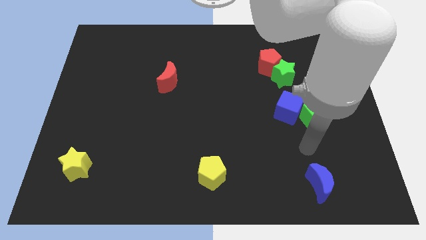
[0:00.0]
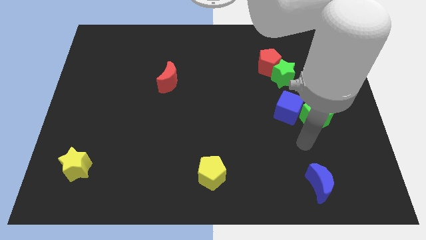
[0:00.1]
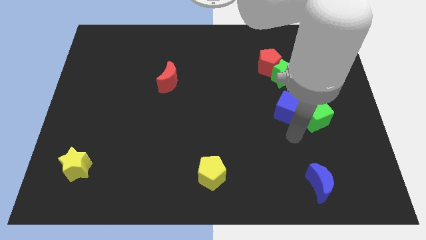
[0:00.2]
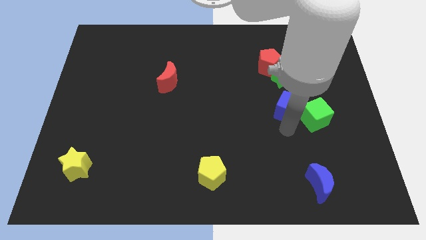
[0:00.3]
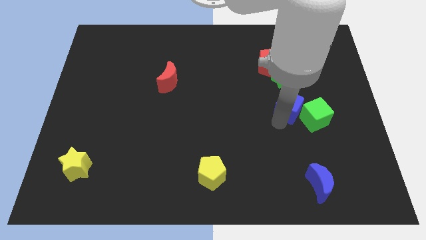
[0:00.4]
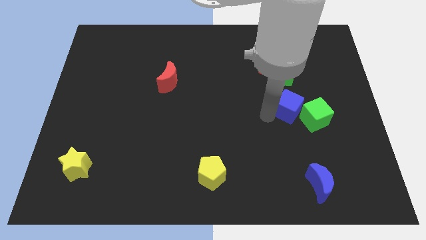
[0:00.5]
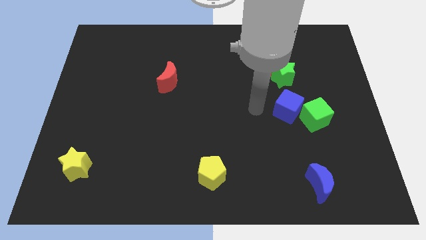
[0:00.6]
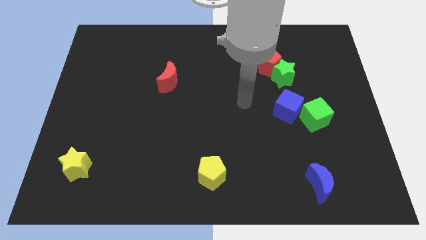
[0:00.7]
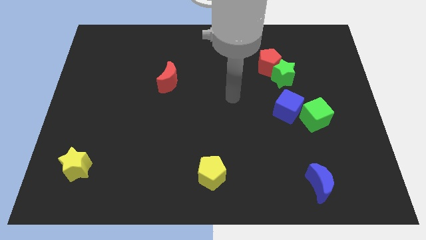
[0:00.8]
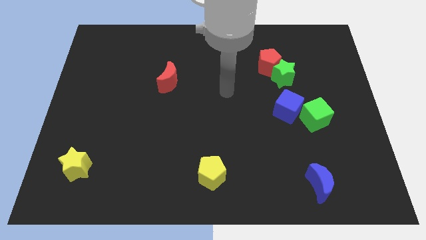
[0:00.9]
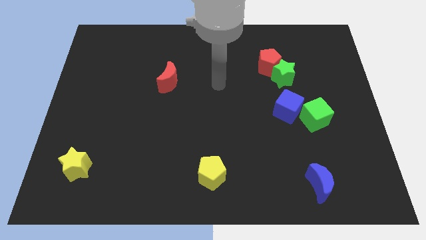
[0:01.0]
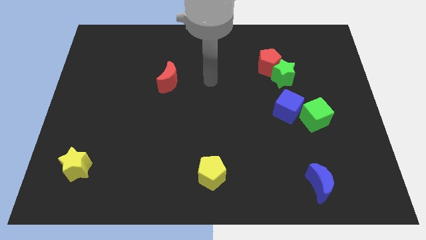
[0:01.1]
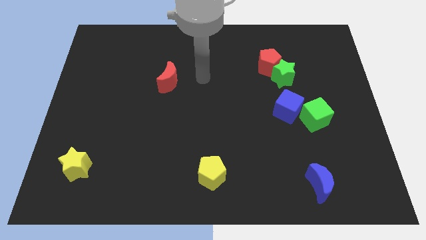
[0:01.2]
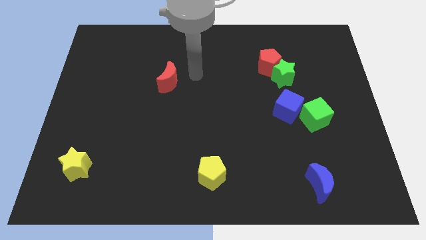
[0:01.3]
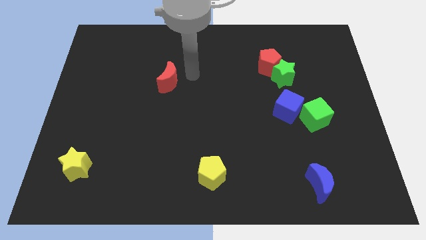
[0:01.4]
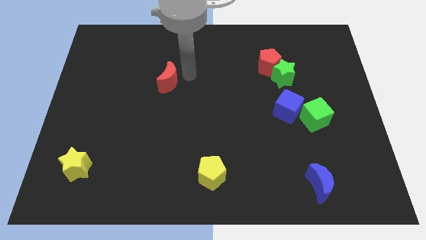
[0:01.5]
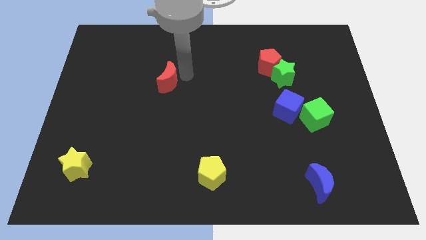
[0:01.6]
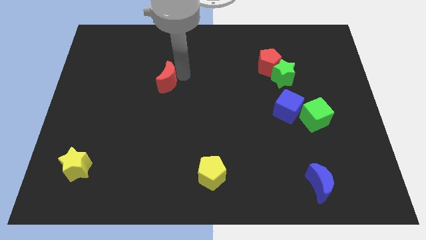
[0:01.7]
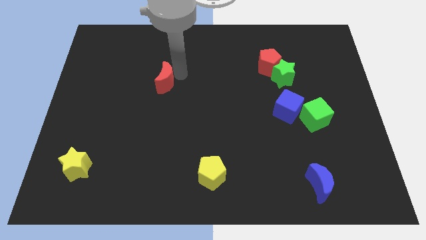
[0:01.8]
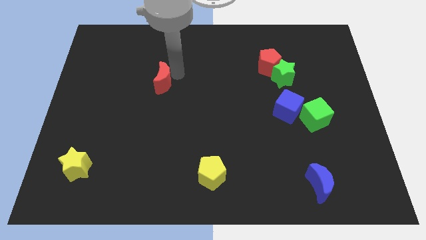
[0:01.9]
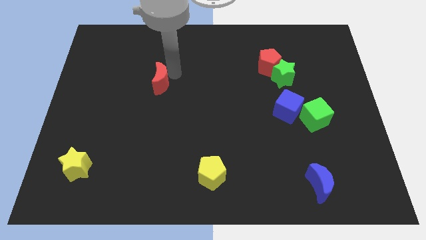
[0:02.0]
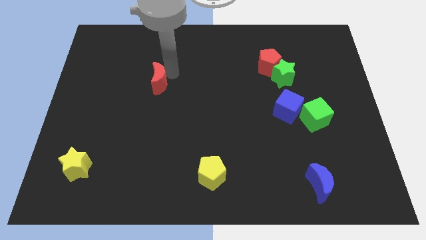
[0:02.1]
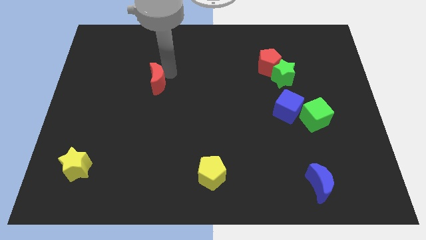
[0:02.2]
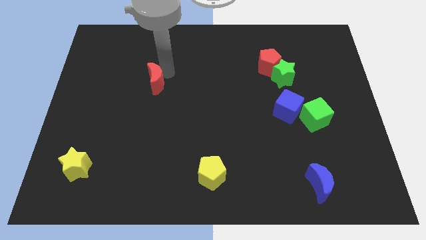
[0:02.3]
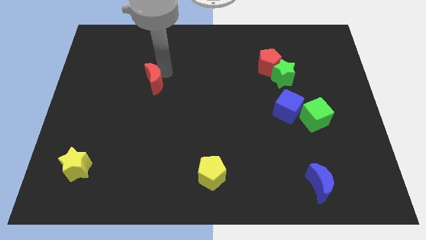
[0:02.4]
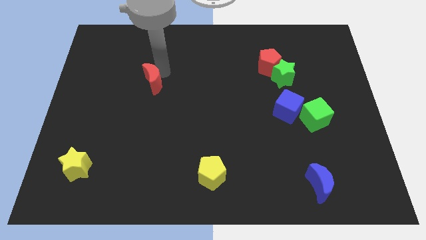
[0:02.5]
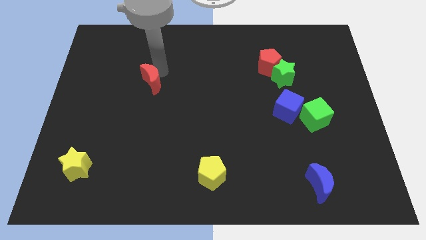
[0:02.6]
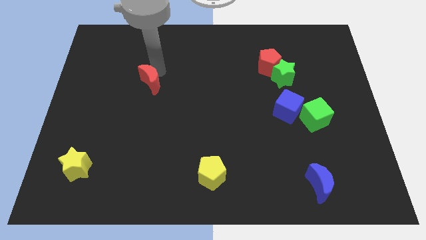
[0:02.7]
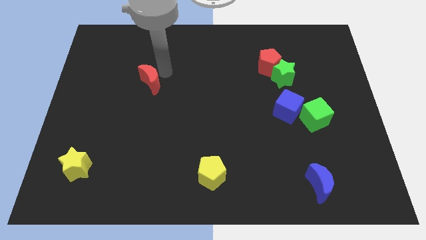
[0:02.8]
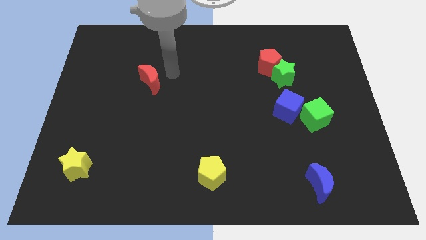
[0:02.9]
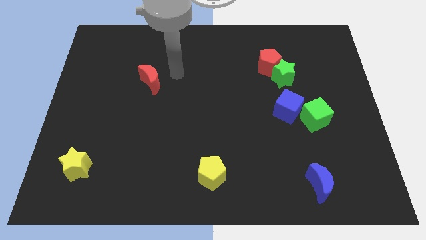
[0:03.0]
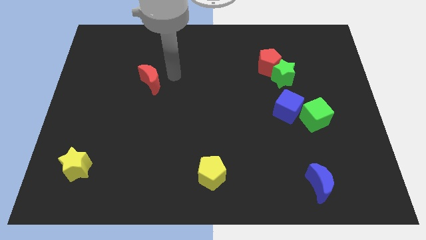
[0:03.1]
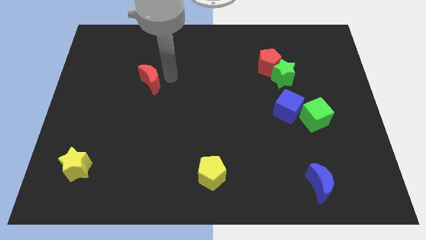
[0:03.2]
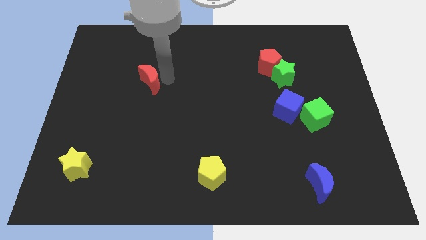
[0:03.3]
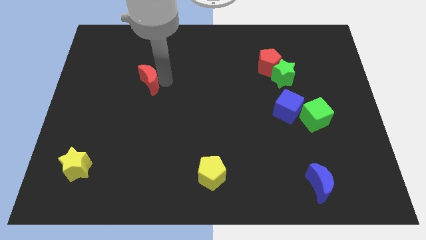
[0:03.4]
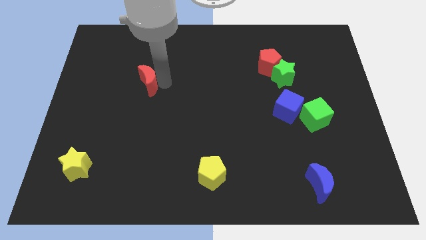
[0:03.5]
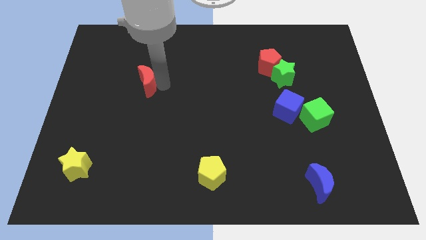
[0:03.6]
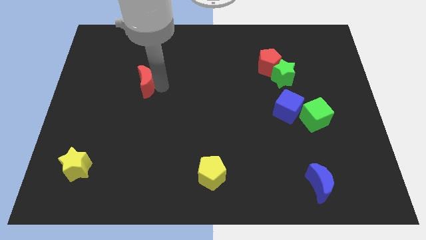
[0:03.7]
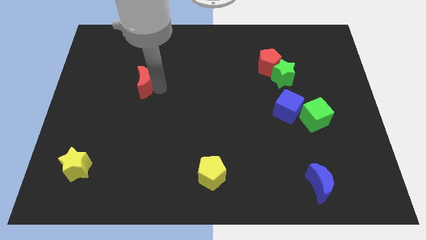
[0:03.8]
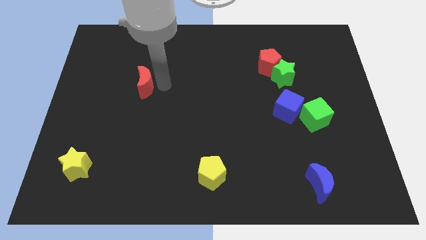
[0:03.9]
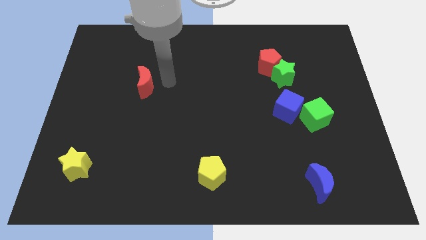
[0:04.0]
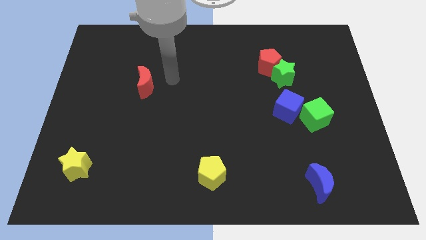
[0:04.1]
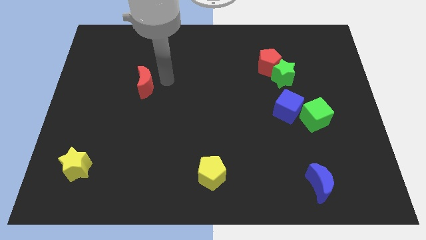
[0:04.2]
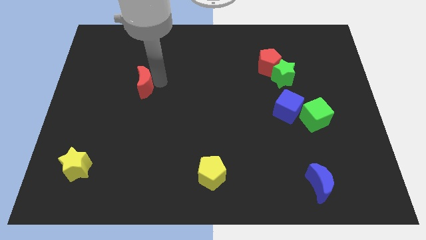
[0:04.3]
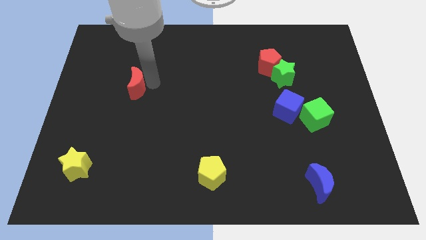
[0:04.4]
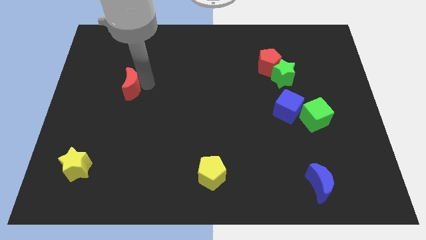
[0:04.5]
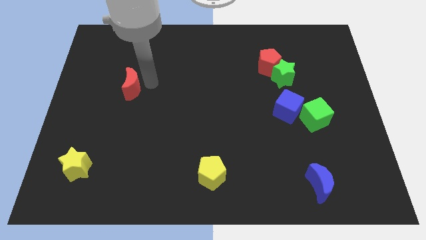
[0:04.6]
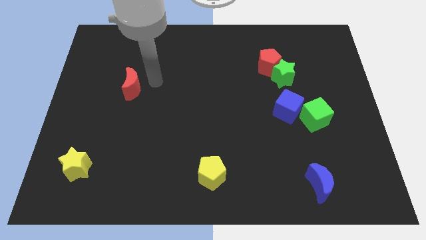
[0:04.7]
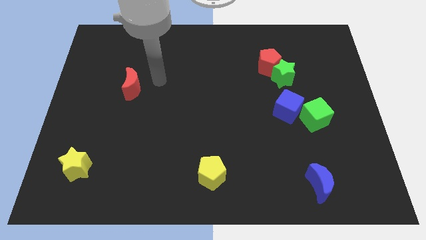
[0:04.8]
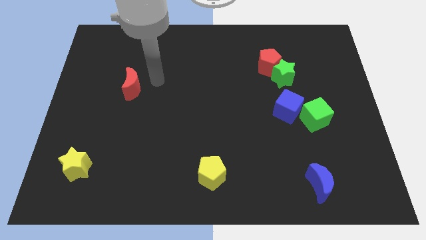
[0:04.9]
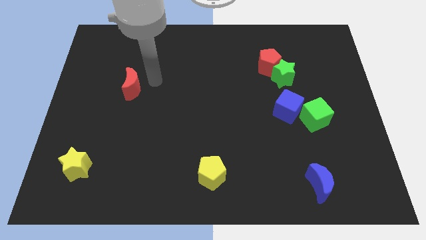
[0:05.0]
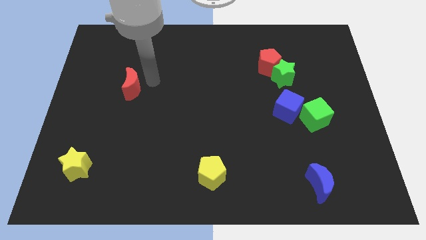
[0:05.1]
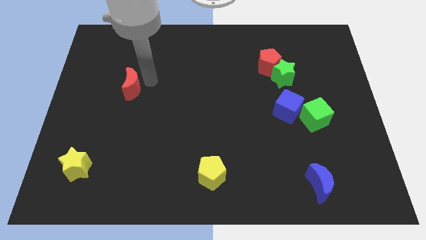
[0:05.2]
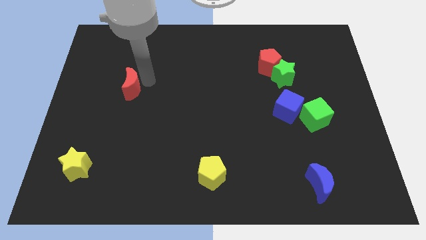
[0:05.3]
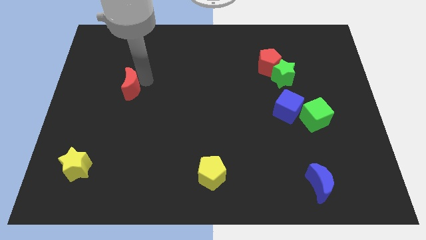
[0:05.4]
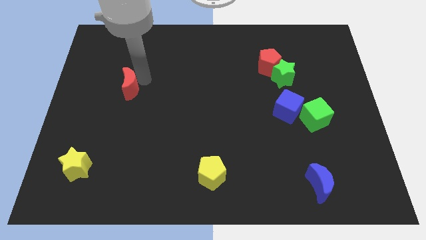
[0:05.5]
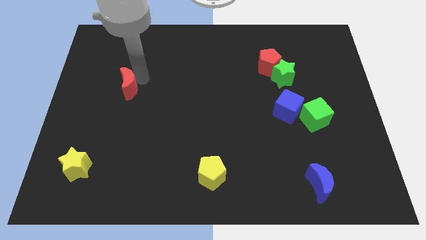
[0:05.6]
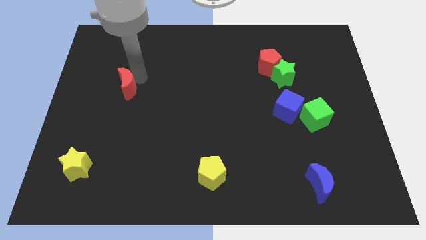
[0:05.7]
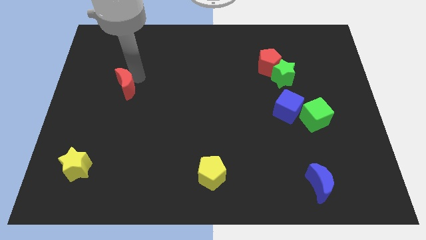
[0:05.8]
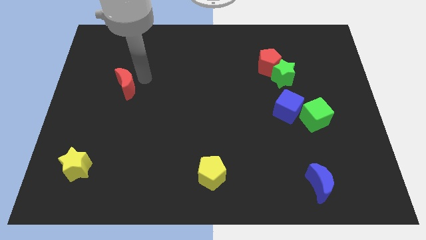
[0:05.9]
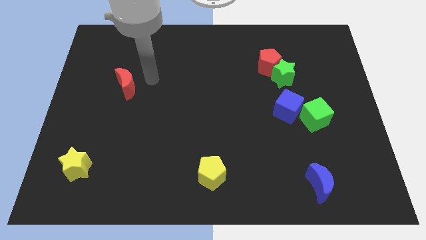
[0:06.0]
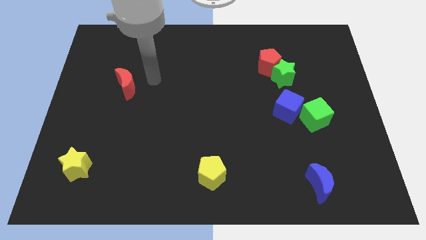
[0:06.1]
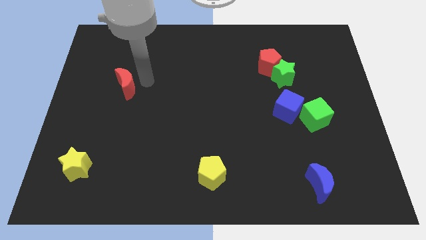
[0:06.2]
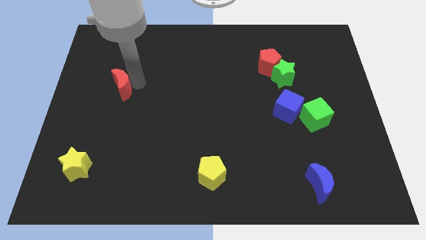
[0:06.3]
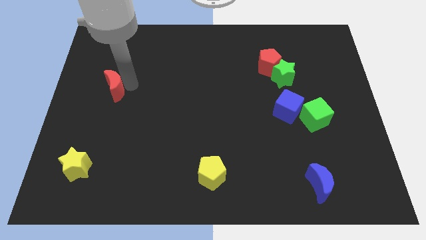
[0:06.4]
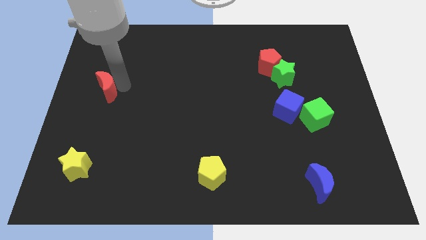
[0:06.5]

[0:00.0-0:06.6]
move the red moon to the left side
